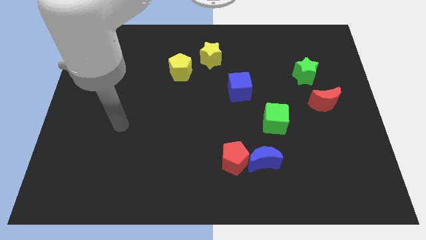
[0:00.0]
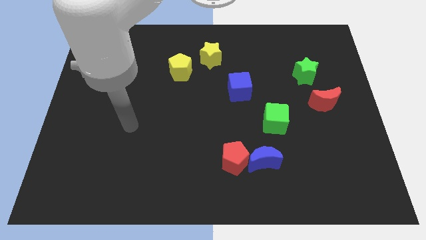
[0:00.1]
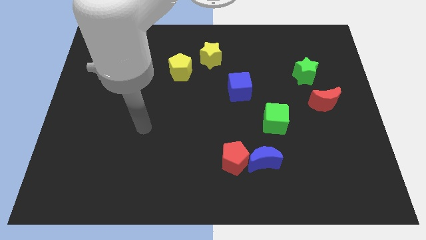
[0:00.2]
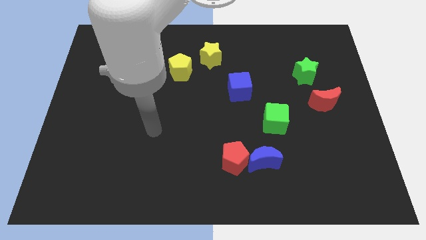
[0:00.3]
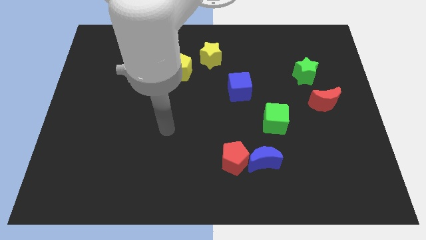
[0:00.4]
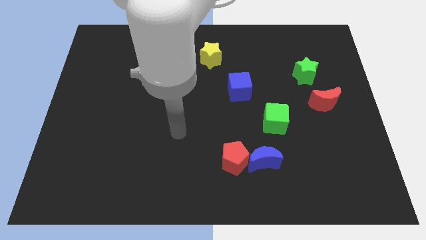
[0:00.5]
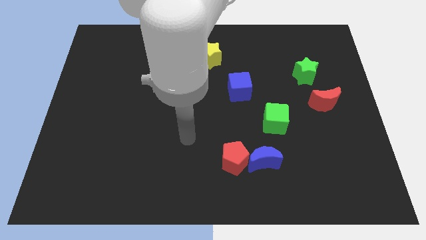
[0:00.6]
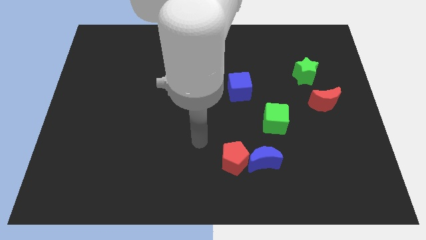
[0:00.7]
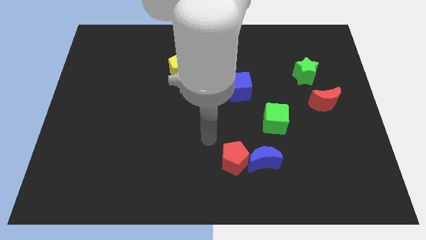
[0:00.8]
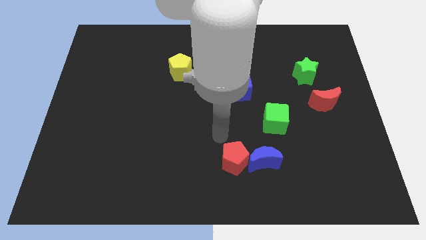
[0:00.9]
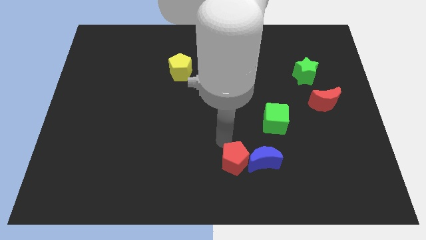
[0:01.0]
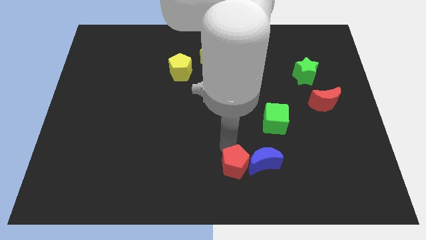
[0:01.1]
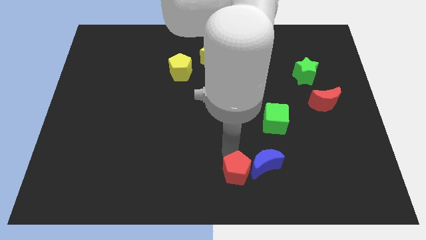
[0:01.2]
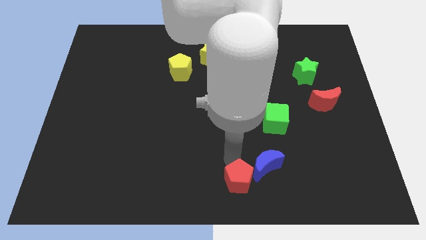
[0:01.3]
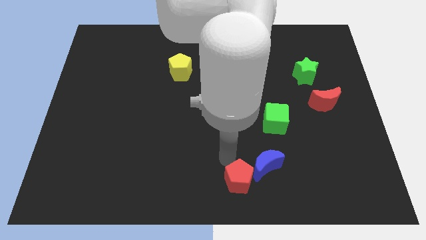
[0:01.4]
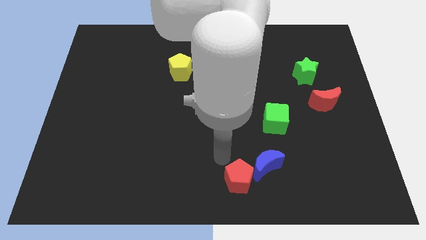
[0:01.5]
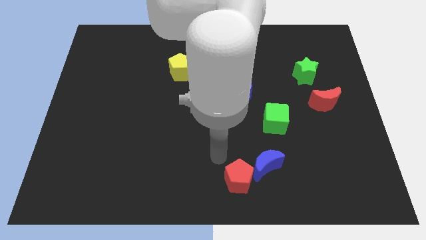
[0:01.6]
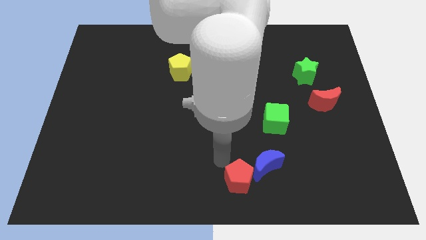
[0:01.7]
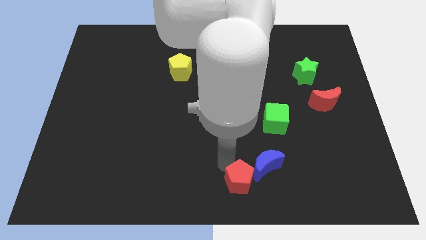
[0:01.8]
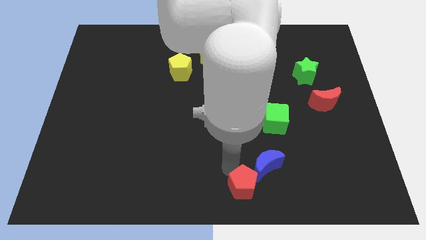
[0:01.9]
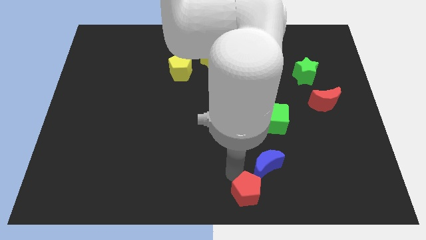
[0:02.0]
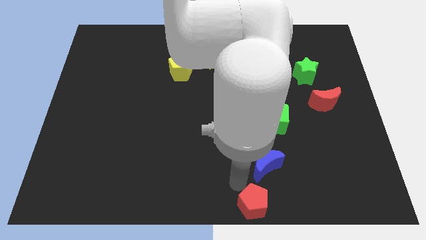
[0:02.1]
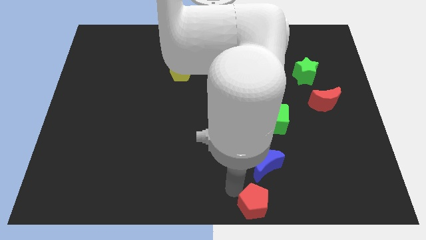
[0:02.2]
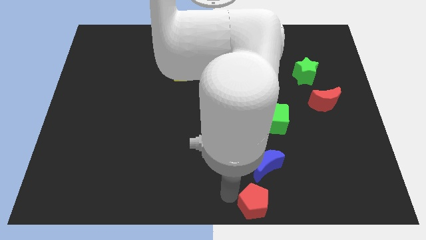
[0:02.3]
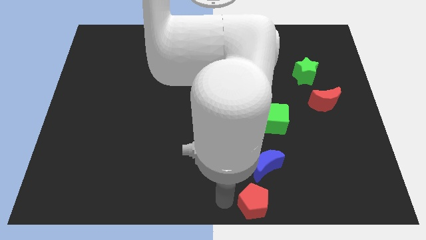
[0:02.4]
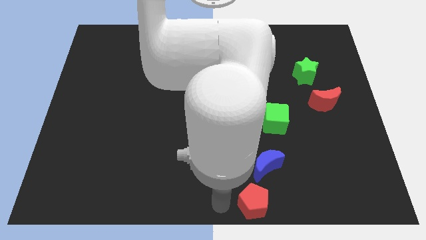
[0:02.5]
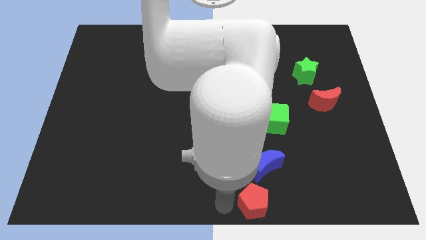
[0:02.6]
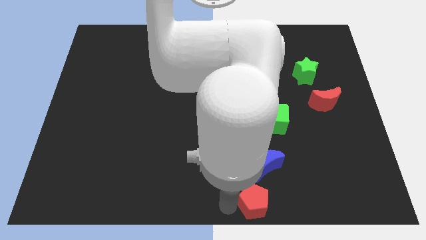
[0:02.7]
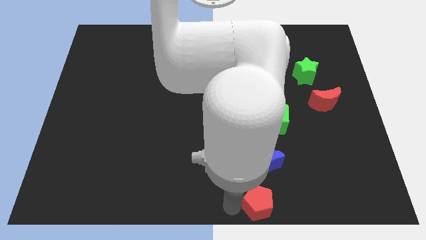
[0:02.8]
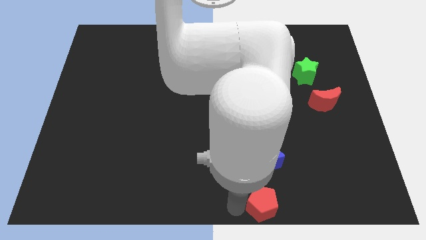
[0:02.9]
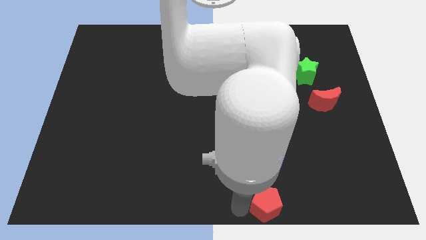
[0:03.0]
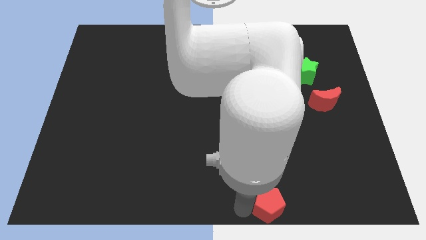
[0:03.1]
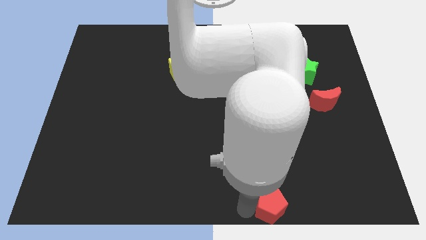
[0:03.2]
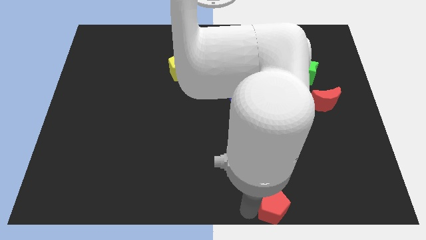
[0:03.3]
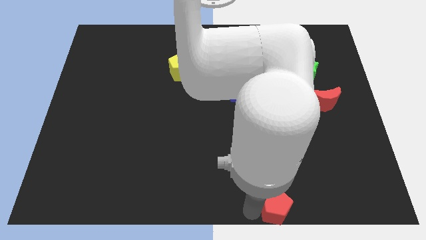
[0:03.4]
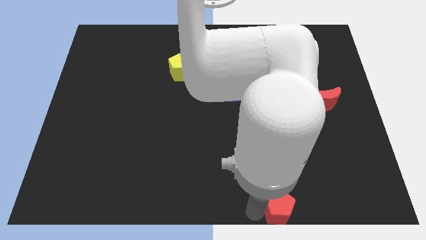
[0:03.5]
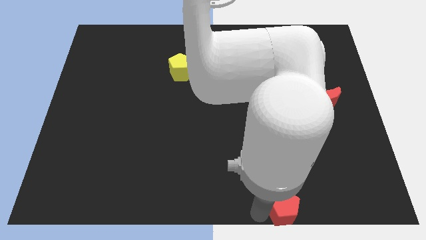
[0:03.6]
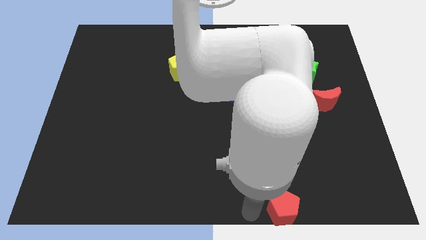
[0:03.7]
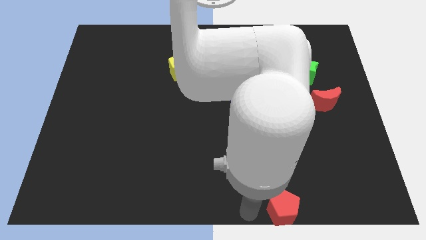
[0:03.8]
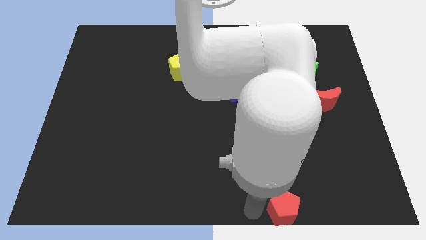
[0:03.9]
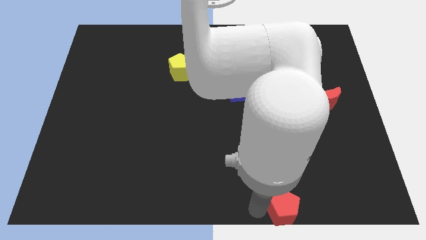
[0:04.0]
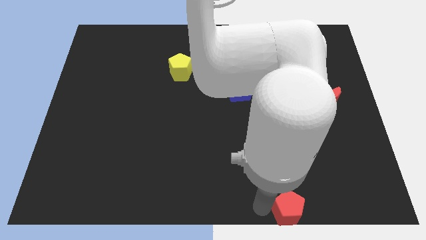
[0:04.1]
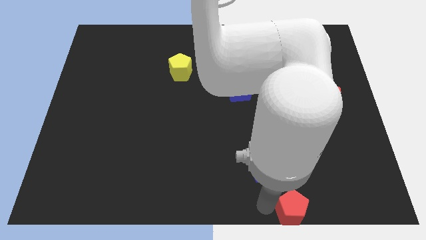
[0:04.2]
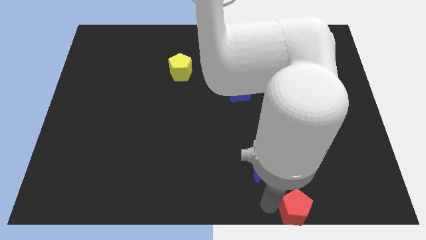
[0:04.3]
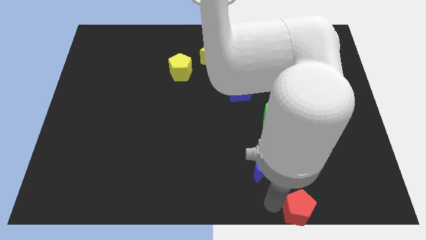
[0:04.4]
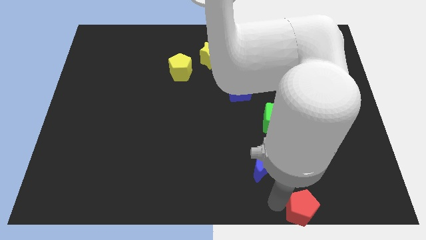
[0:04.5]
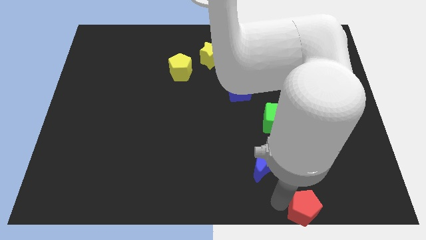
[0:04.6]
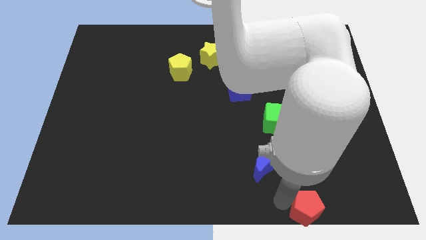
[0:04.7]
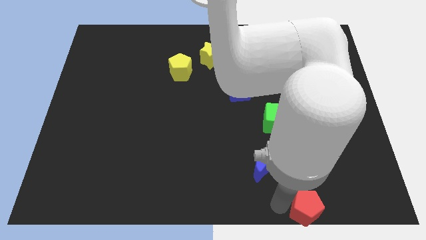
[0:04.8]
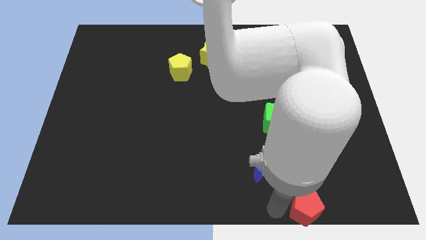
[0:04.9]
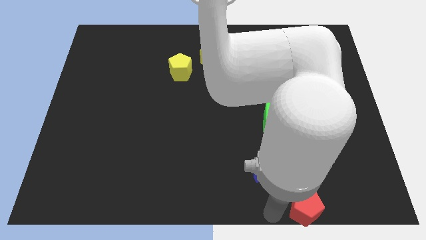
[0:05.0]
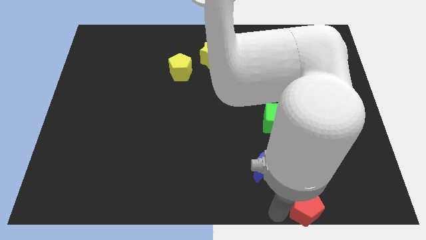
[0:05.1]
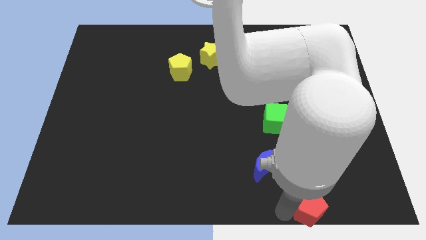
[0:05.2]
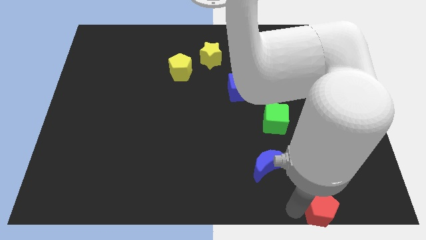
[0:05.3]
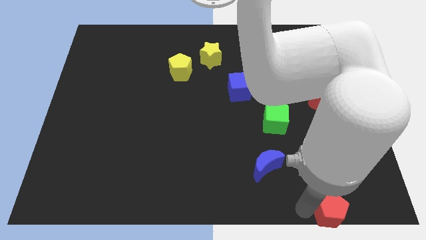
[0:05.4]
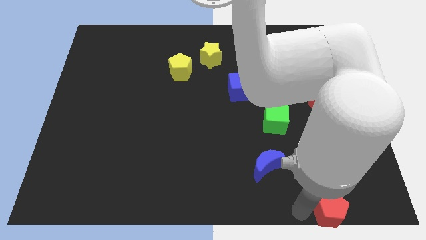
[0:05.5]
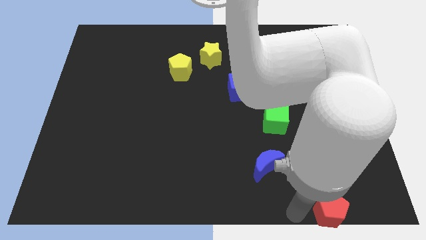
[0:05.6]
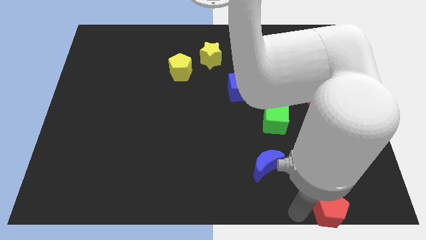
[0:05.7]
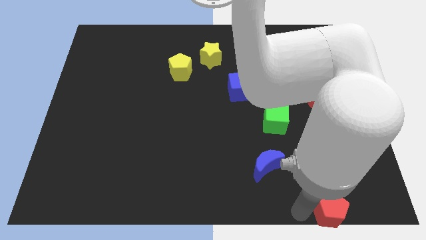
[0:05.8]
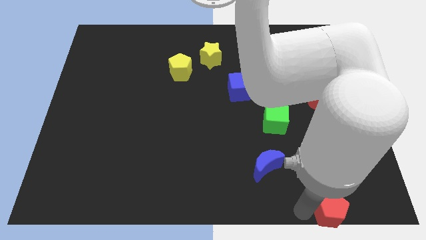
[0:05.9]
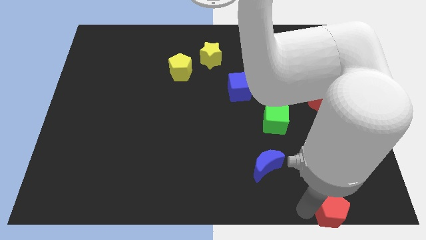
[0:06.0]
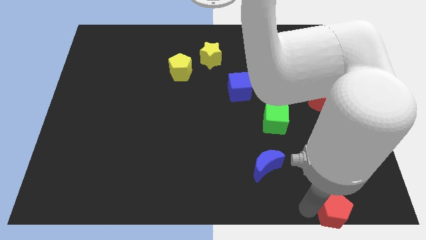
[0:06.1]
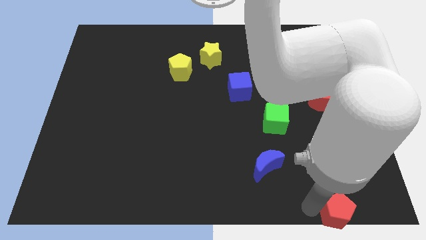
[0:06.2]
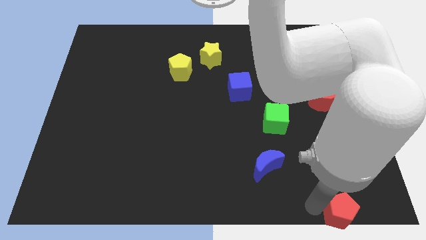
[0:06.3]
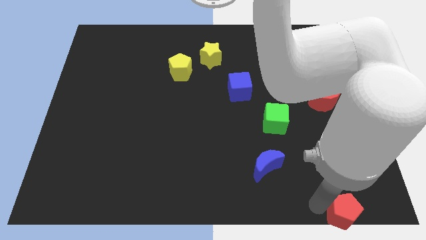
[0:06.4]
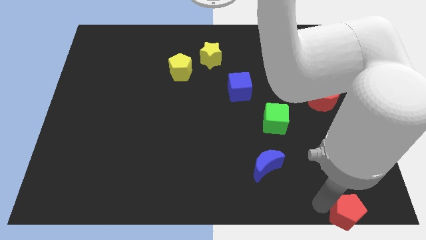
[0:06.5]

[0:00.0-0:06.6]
move the red pentagon to the bottom right
